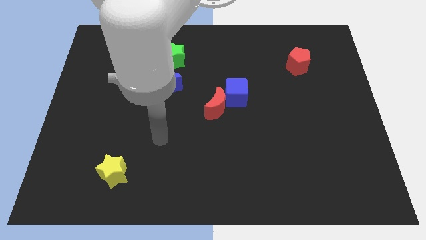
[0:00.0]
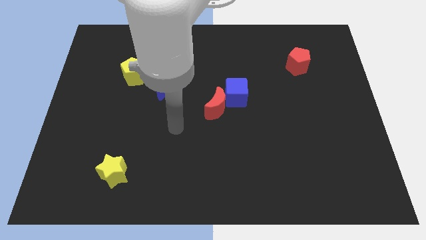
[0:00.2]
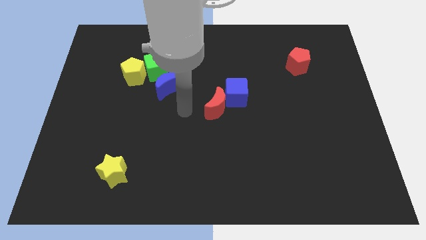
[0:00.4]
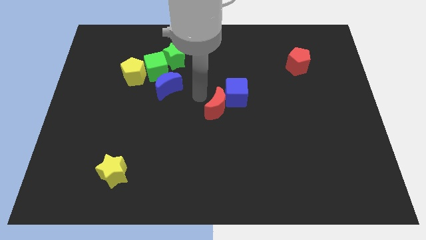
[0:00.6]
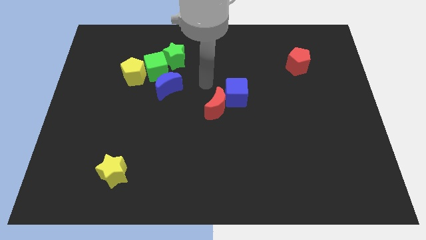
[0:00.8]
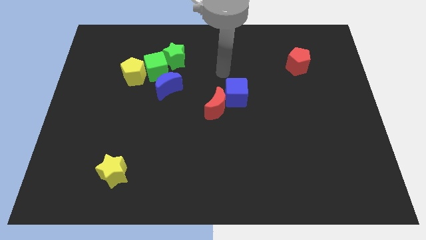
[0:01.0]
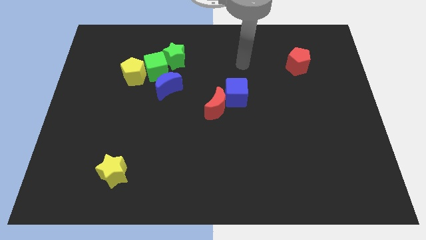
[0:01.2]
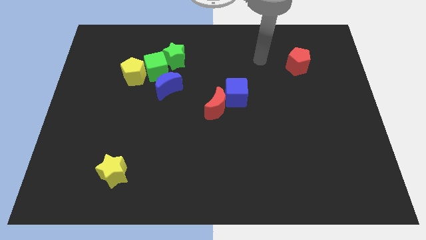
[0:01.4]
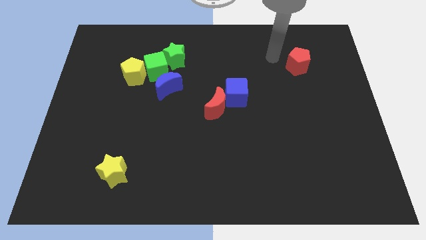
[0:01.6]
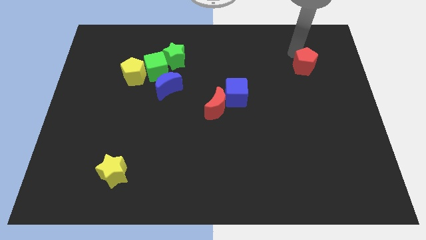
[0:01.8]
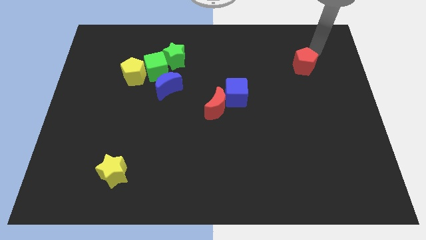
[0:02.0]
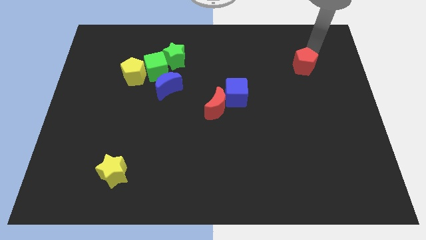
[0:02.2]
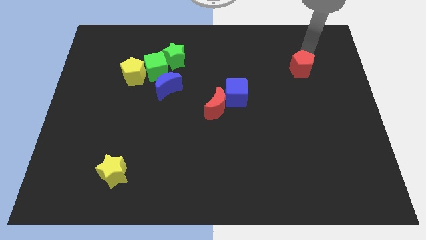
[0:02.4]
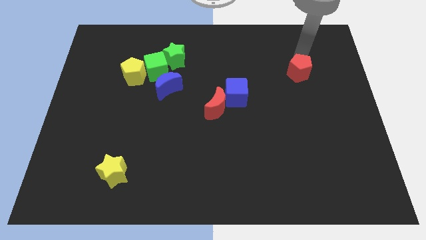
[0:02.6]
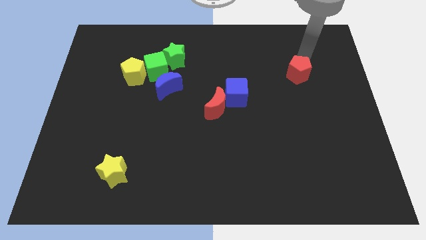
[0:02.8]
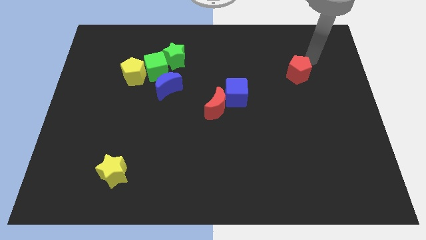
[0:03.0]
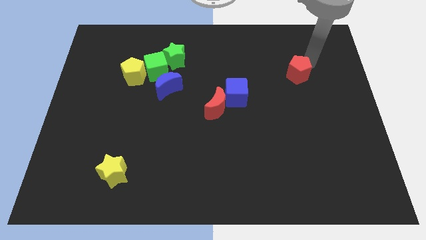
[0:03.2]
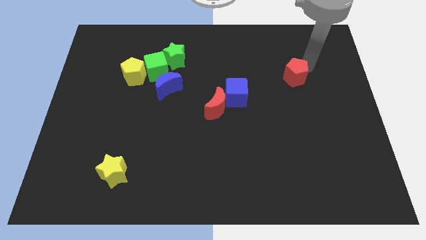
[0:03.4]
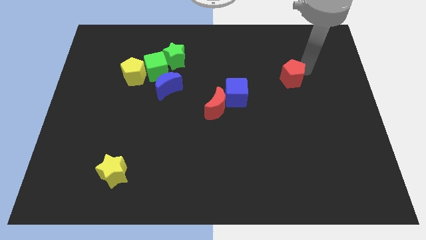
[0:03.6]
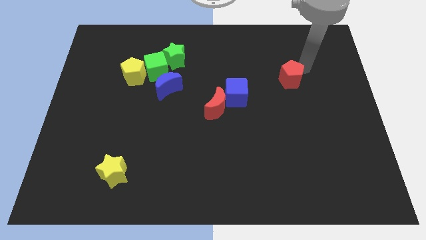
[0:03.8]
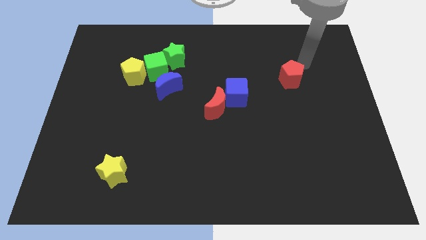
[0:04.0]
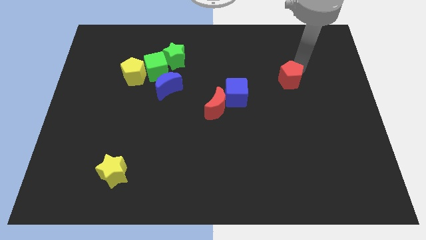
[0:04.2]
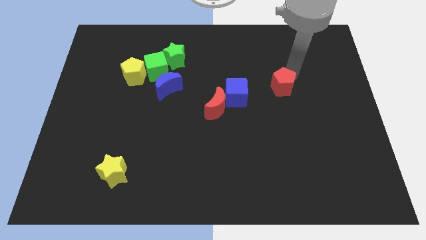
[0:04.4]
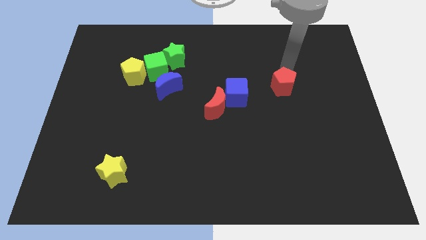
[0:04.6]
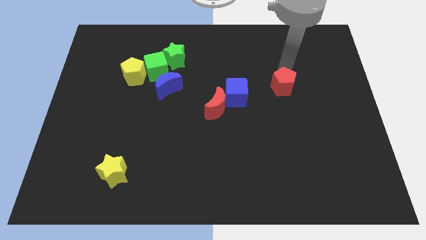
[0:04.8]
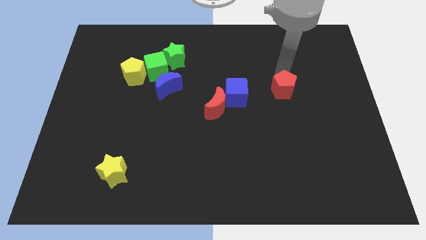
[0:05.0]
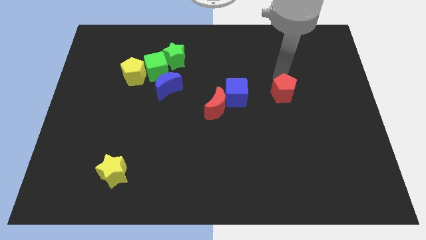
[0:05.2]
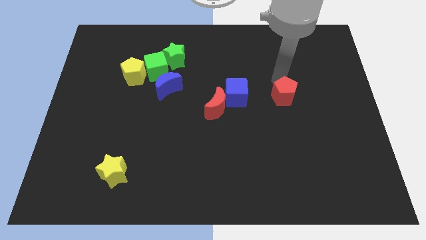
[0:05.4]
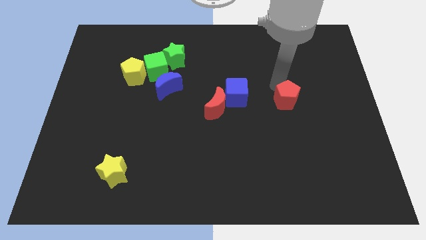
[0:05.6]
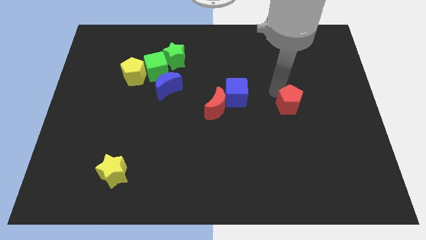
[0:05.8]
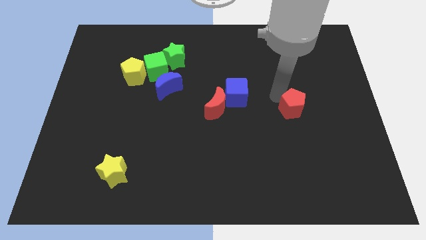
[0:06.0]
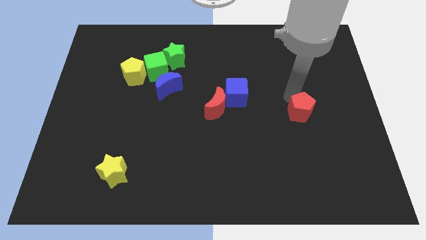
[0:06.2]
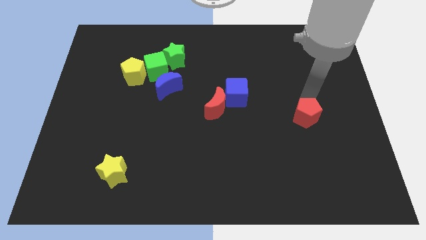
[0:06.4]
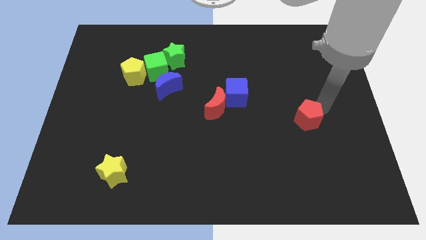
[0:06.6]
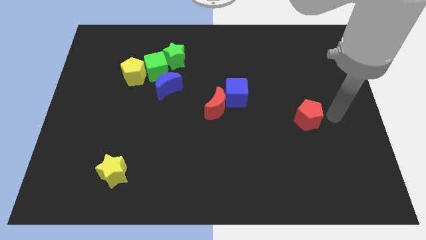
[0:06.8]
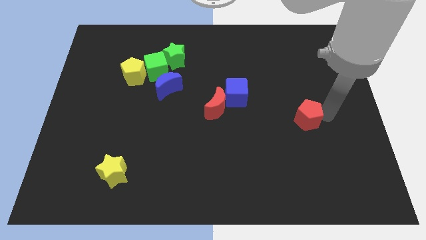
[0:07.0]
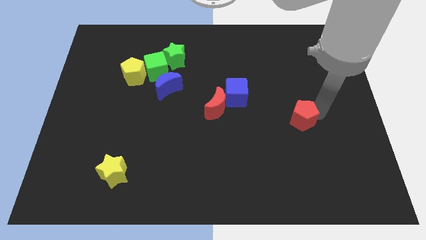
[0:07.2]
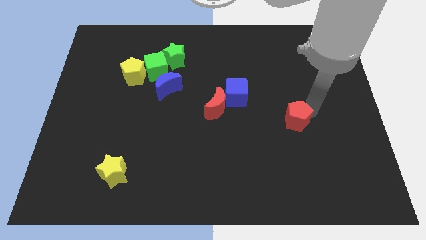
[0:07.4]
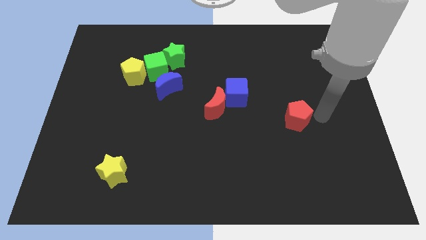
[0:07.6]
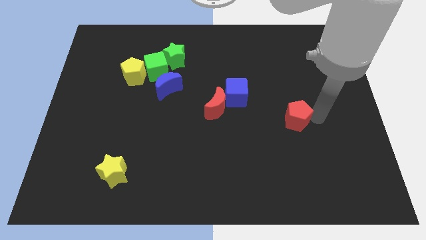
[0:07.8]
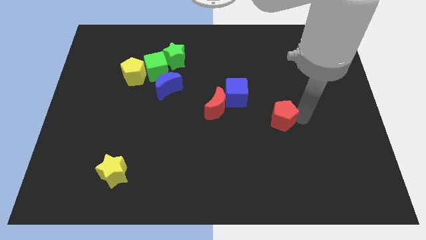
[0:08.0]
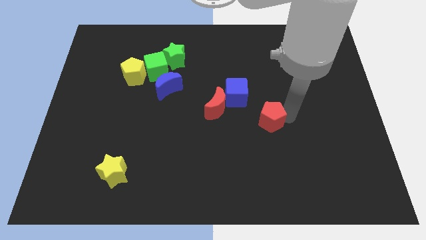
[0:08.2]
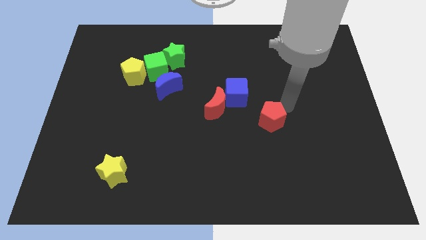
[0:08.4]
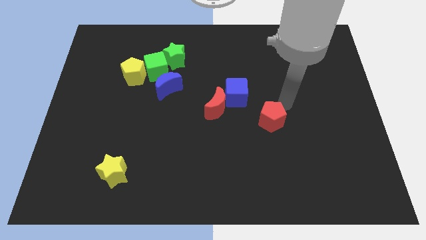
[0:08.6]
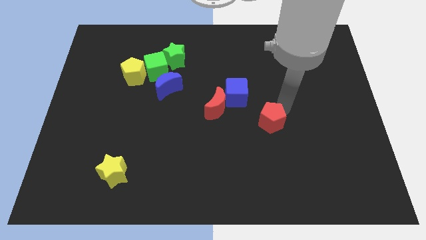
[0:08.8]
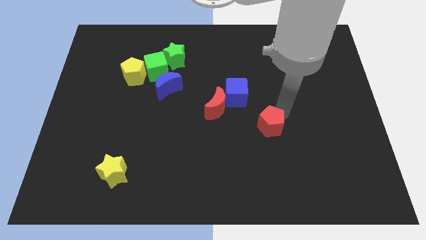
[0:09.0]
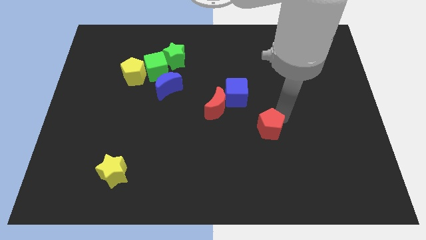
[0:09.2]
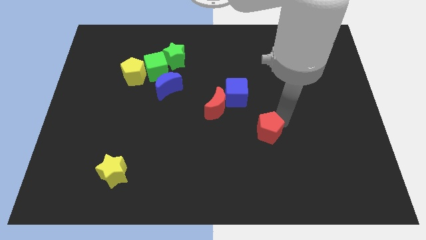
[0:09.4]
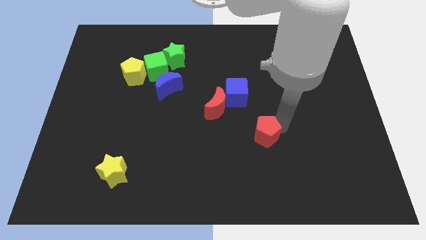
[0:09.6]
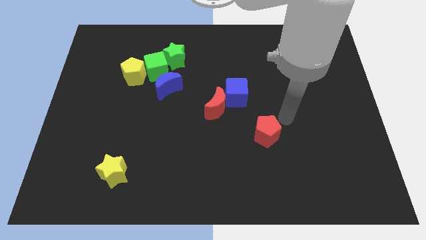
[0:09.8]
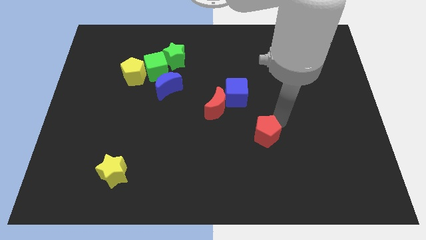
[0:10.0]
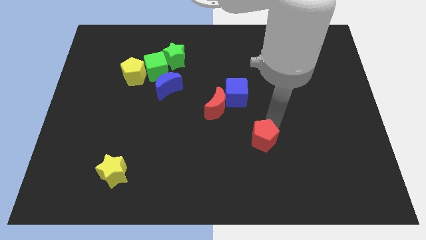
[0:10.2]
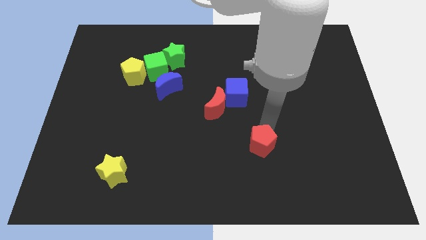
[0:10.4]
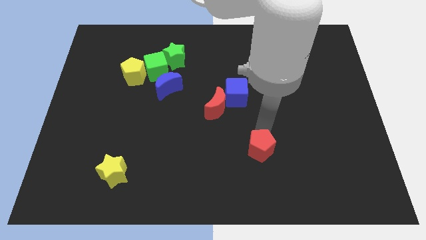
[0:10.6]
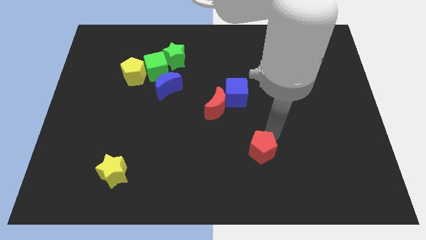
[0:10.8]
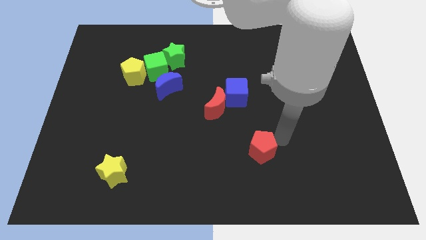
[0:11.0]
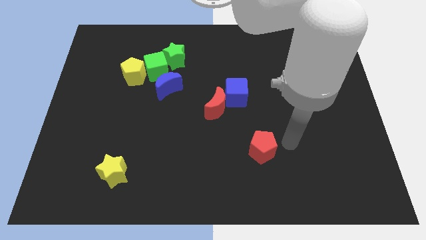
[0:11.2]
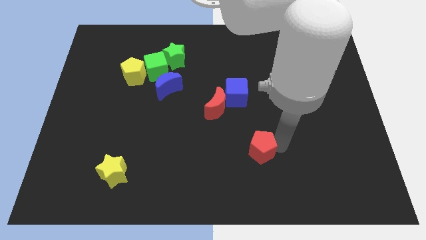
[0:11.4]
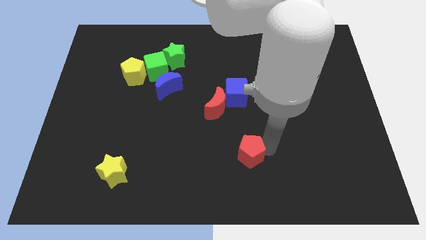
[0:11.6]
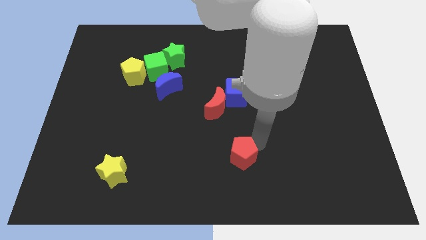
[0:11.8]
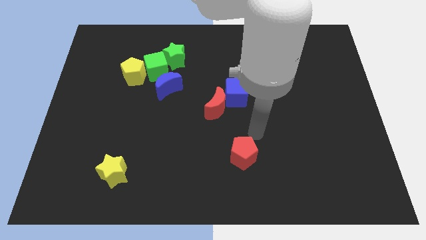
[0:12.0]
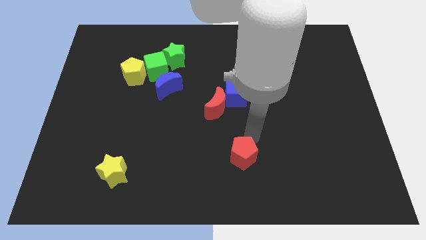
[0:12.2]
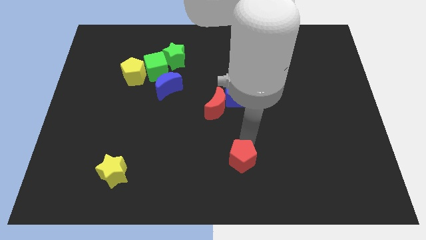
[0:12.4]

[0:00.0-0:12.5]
push the red pentagon to the bottom

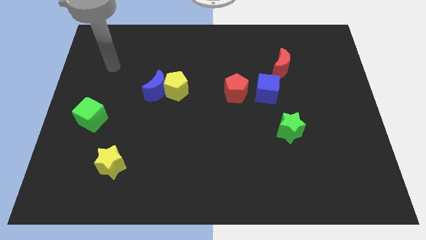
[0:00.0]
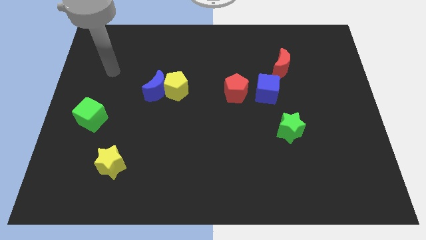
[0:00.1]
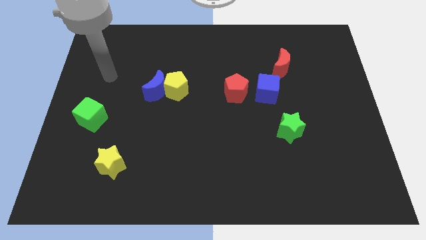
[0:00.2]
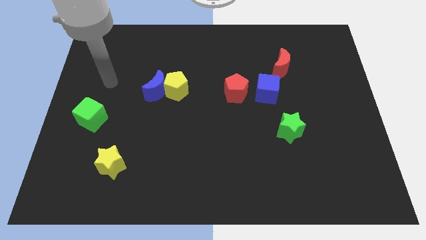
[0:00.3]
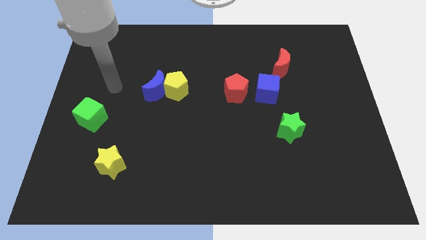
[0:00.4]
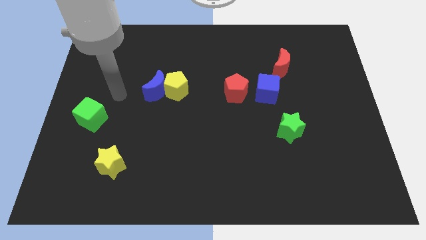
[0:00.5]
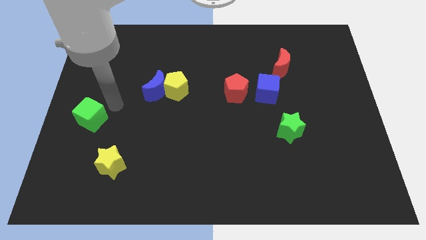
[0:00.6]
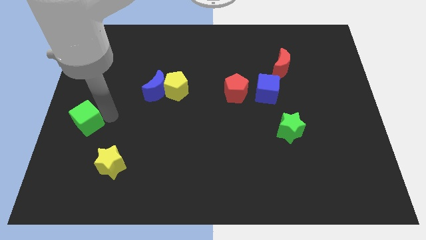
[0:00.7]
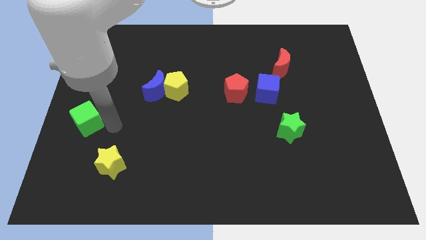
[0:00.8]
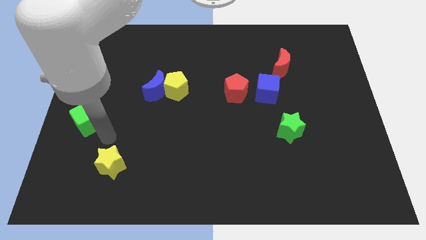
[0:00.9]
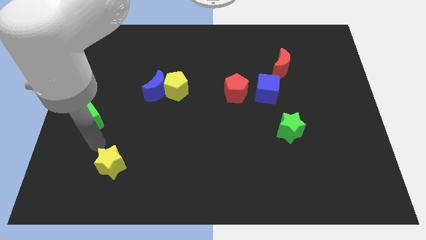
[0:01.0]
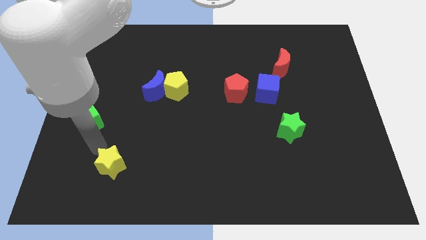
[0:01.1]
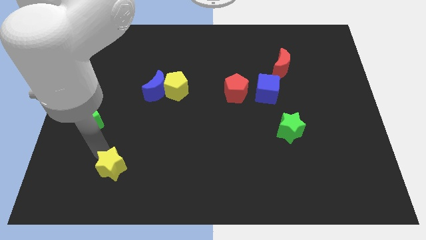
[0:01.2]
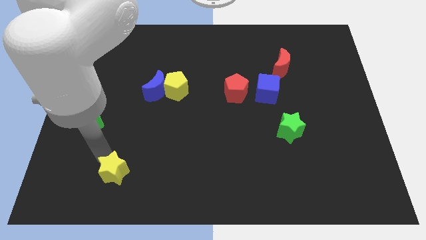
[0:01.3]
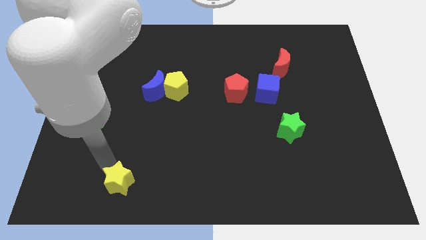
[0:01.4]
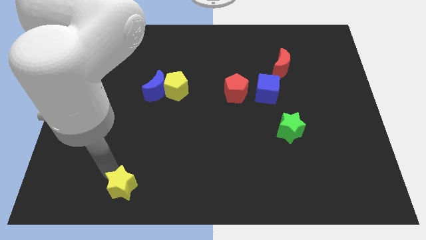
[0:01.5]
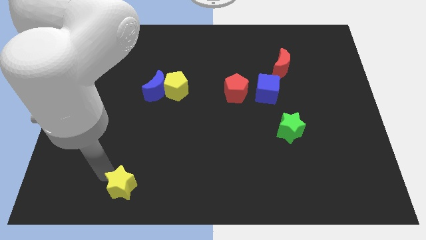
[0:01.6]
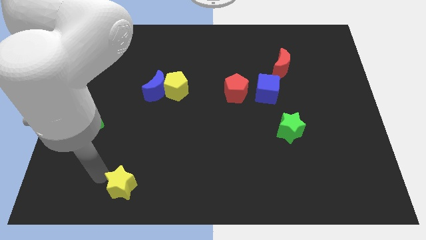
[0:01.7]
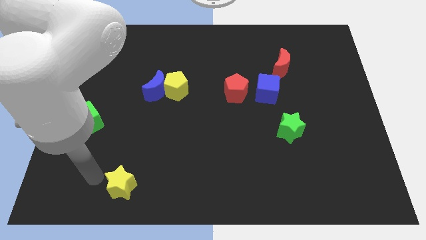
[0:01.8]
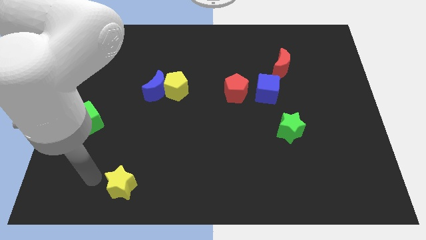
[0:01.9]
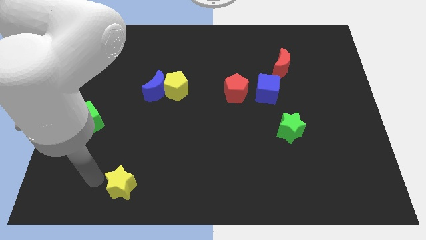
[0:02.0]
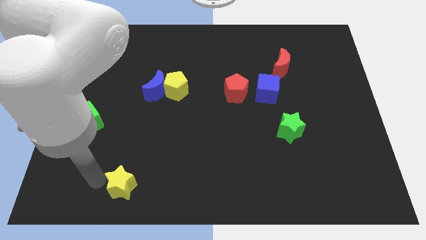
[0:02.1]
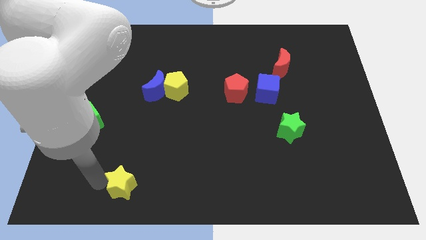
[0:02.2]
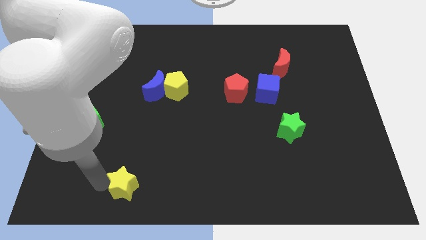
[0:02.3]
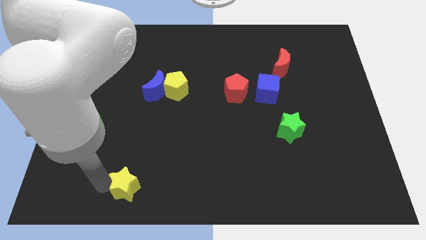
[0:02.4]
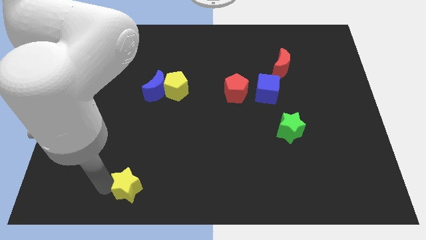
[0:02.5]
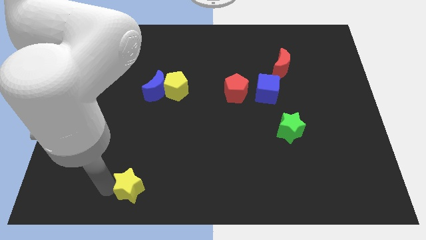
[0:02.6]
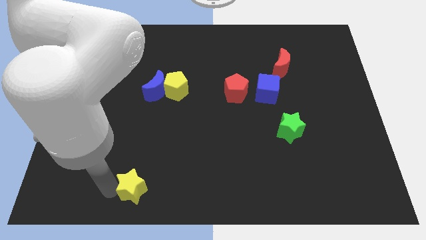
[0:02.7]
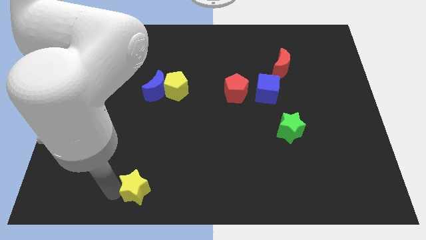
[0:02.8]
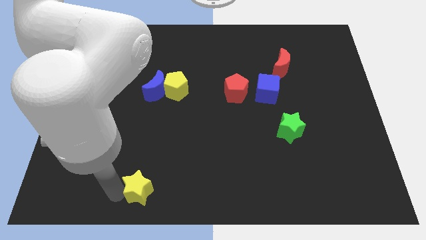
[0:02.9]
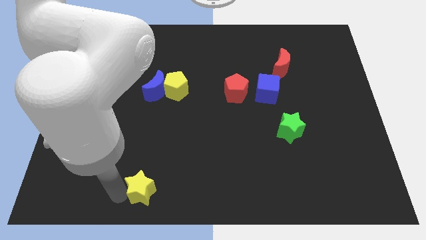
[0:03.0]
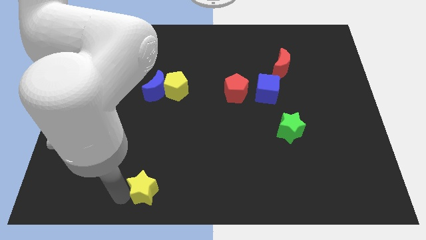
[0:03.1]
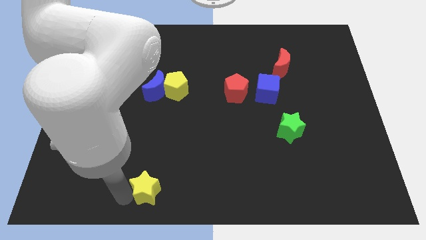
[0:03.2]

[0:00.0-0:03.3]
push the yellow star to the bottom side
